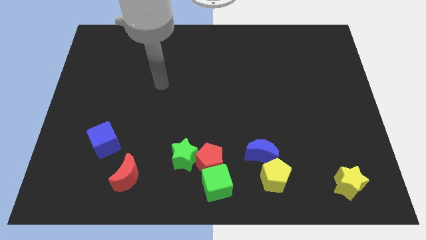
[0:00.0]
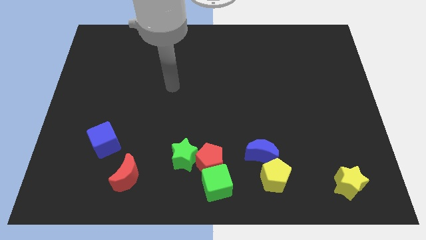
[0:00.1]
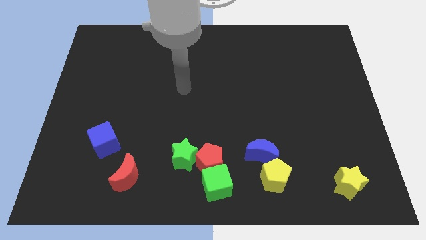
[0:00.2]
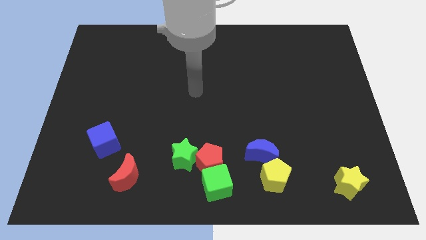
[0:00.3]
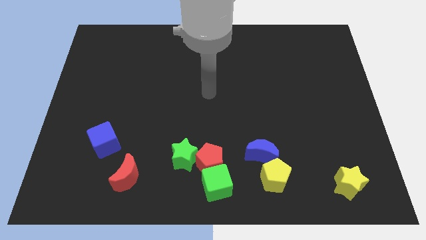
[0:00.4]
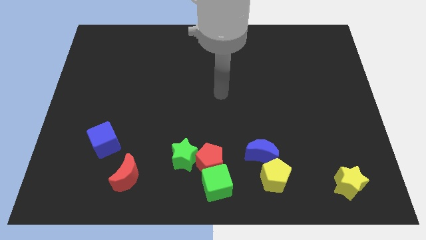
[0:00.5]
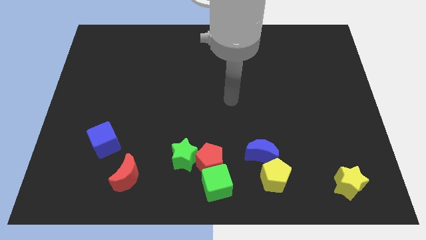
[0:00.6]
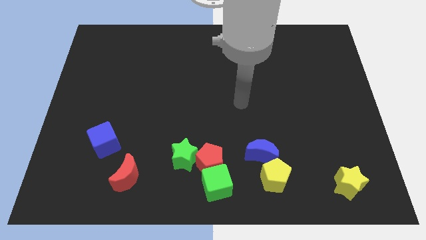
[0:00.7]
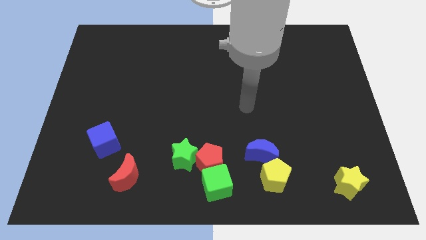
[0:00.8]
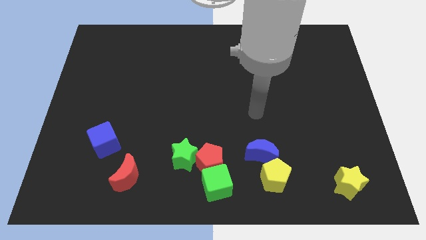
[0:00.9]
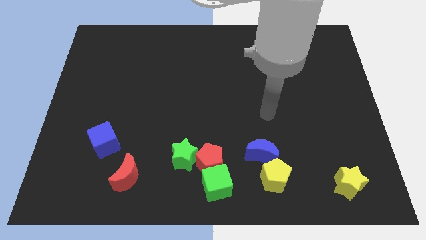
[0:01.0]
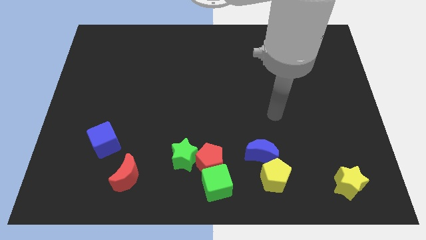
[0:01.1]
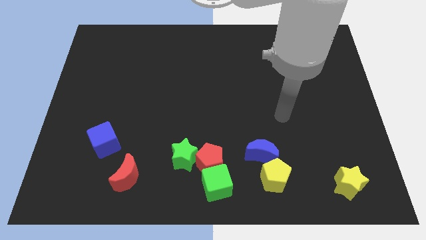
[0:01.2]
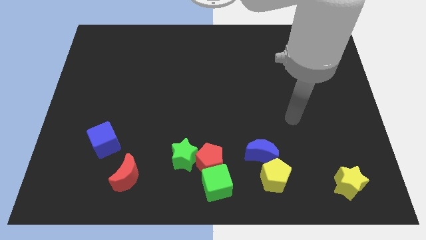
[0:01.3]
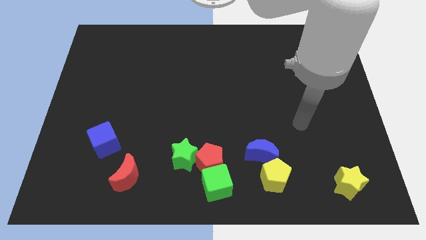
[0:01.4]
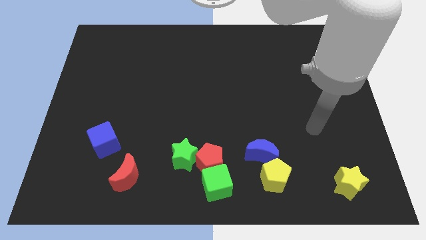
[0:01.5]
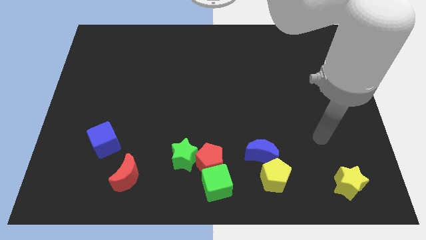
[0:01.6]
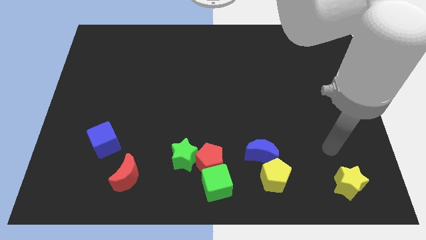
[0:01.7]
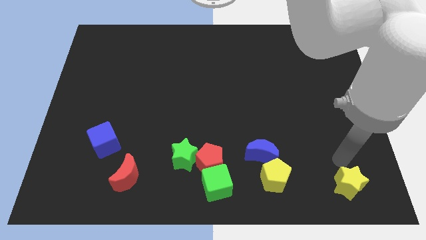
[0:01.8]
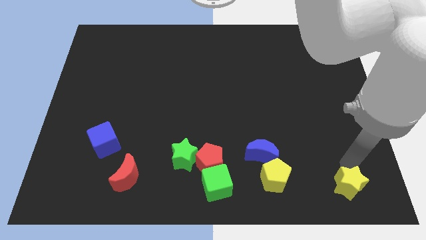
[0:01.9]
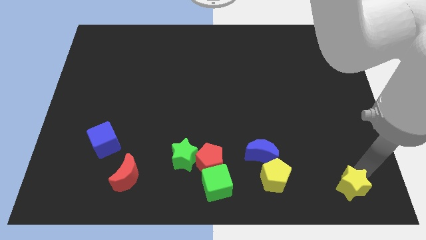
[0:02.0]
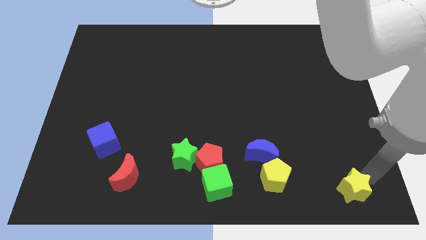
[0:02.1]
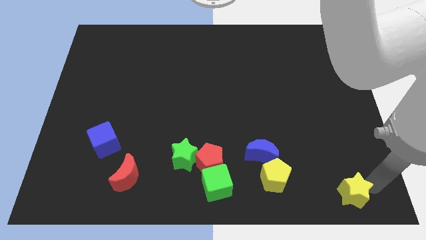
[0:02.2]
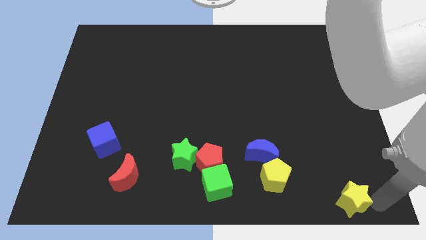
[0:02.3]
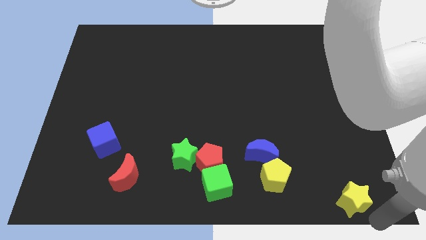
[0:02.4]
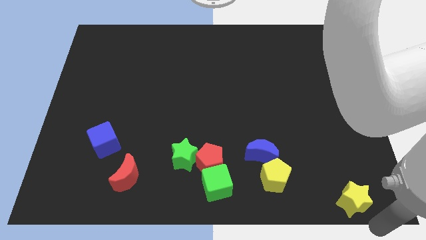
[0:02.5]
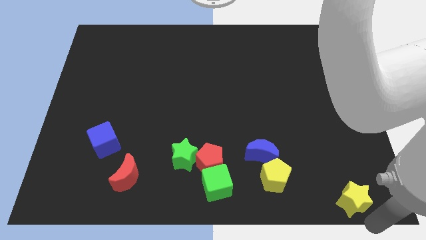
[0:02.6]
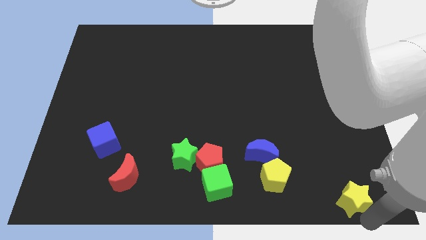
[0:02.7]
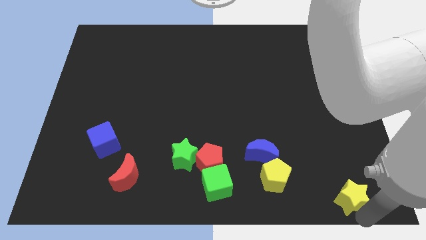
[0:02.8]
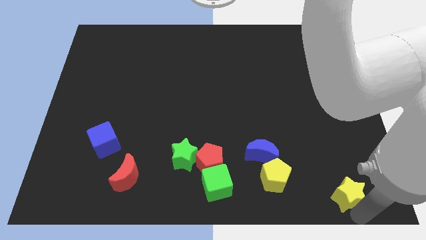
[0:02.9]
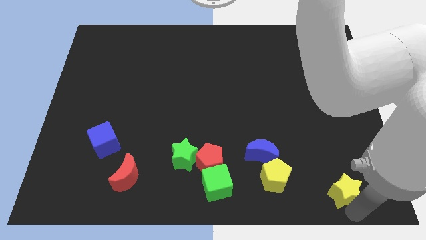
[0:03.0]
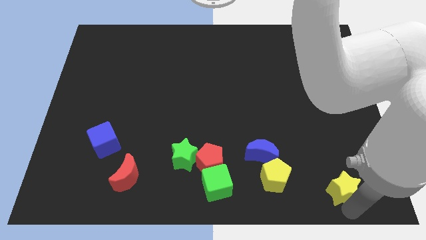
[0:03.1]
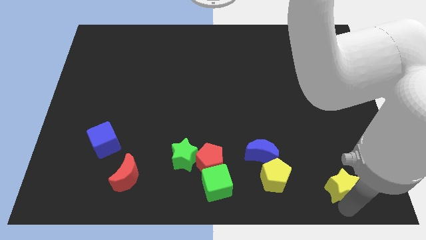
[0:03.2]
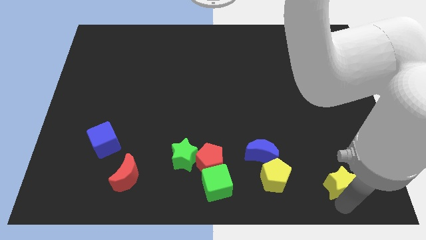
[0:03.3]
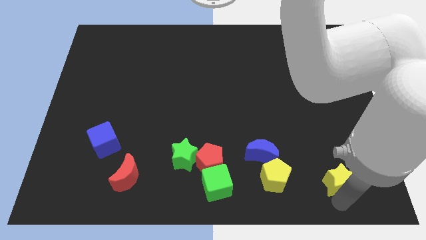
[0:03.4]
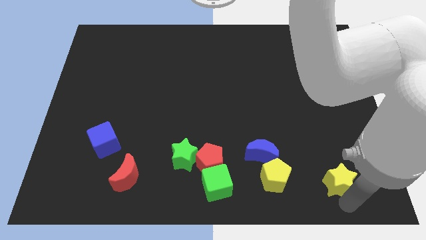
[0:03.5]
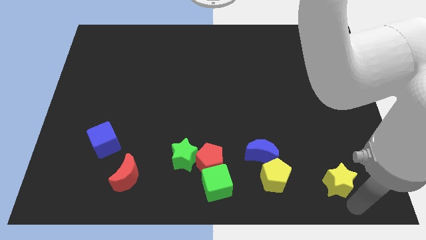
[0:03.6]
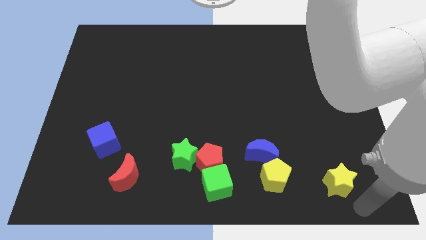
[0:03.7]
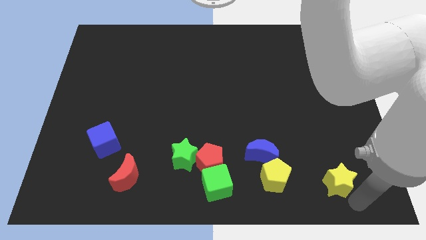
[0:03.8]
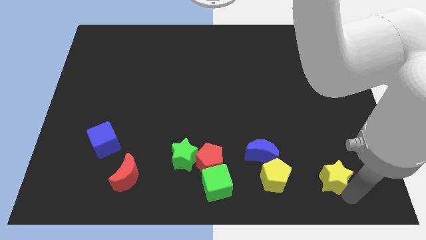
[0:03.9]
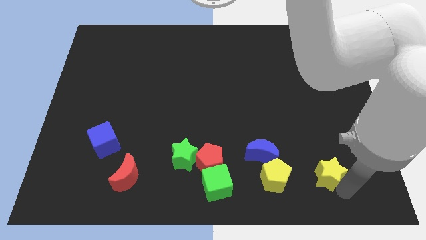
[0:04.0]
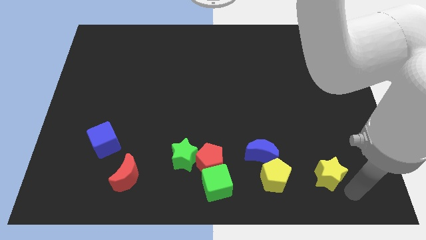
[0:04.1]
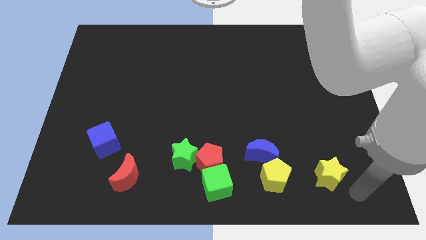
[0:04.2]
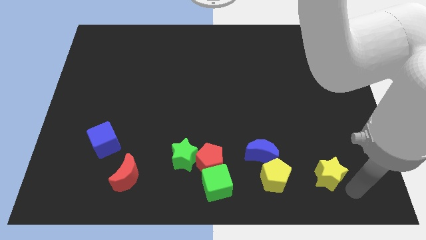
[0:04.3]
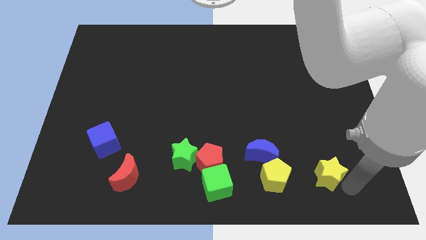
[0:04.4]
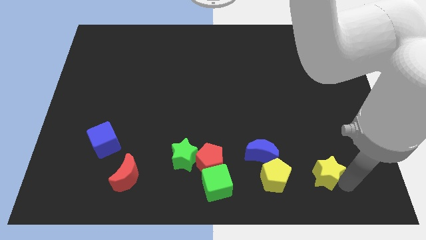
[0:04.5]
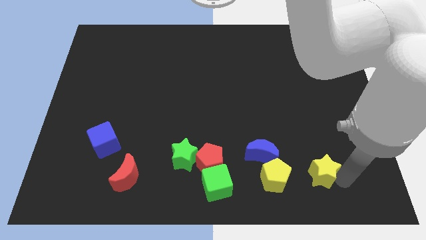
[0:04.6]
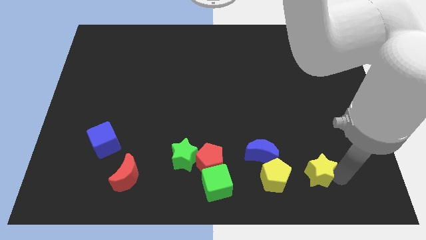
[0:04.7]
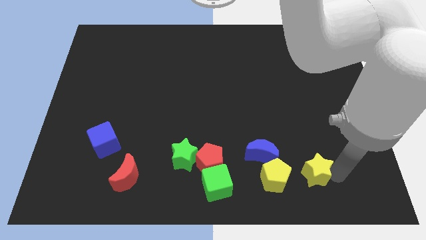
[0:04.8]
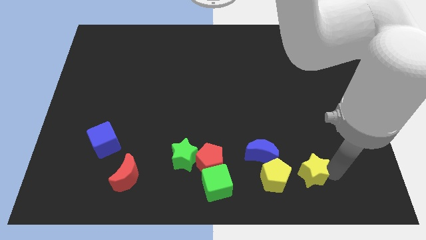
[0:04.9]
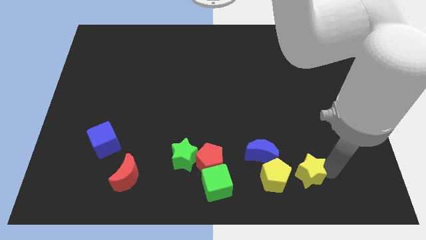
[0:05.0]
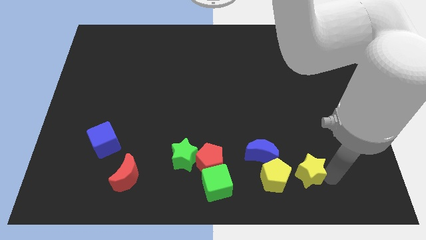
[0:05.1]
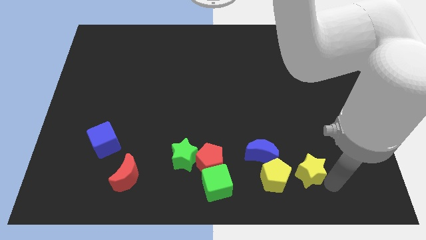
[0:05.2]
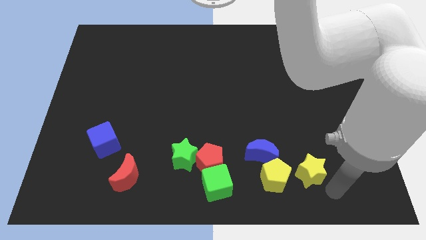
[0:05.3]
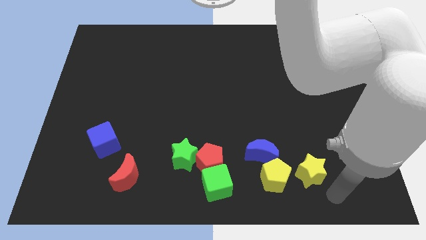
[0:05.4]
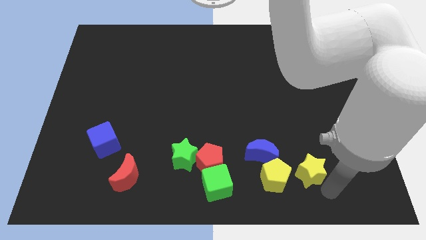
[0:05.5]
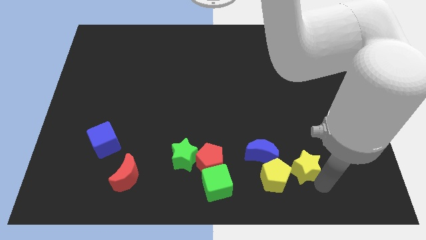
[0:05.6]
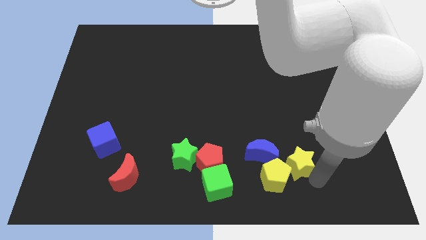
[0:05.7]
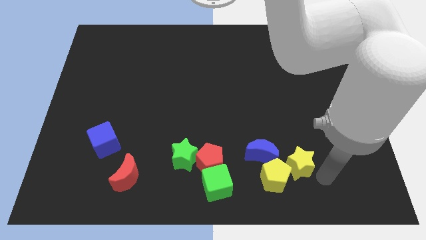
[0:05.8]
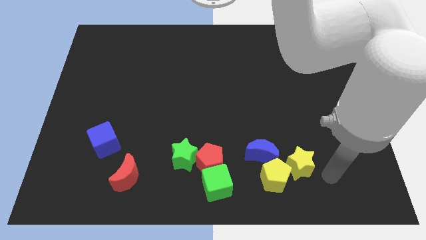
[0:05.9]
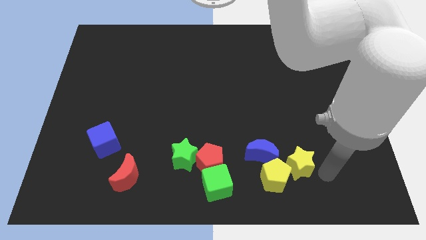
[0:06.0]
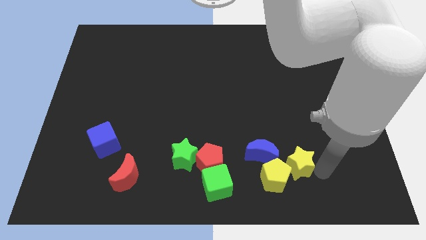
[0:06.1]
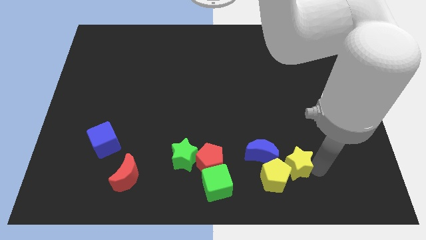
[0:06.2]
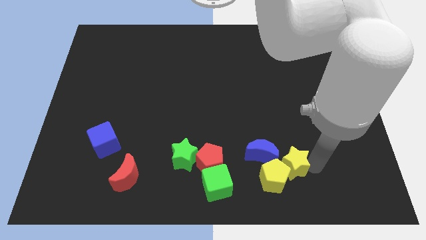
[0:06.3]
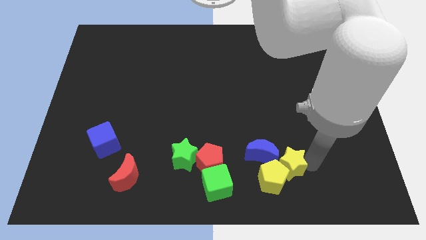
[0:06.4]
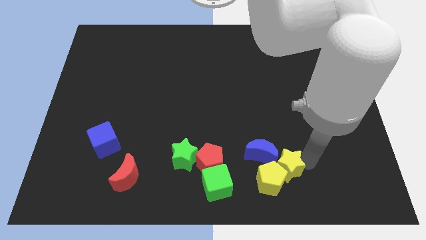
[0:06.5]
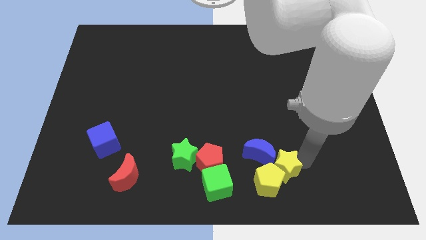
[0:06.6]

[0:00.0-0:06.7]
slide the yellow star next to the blue moon
